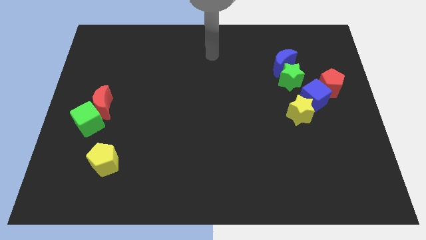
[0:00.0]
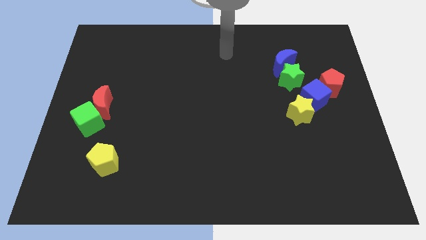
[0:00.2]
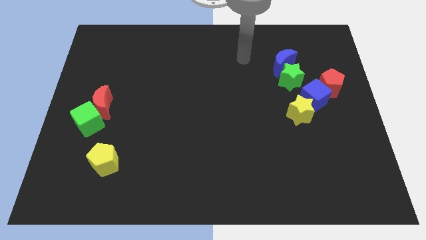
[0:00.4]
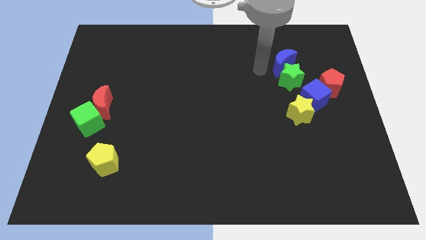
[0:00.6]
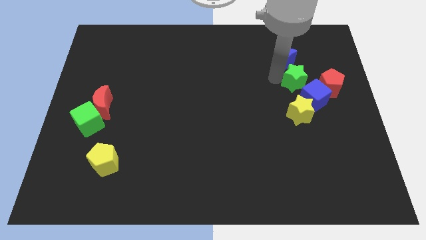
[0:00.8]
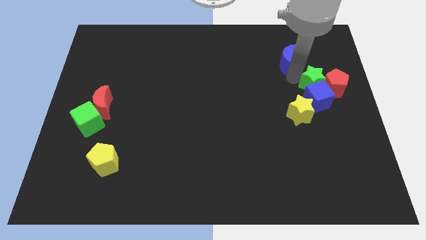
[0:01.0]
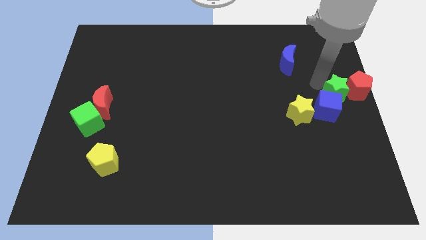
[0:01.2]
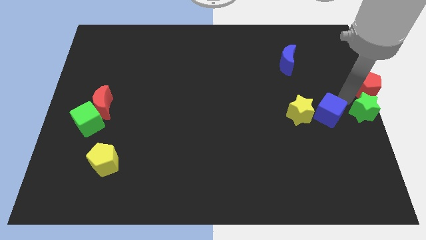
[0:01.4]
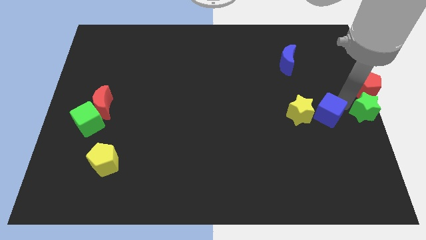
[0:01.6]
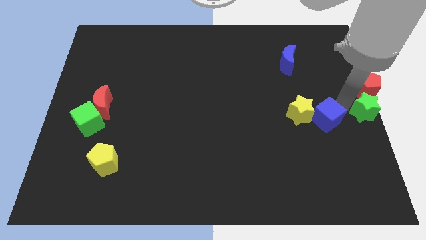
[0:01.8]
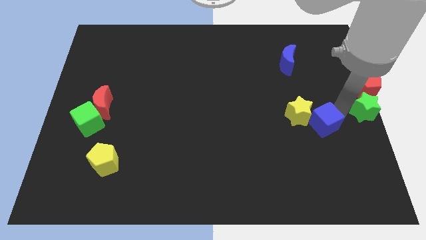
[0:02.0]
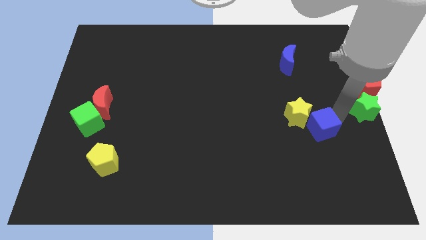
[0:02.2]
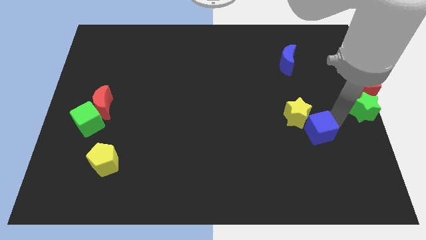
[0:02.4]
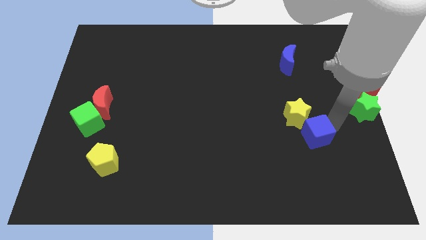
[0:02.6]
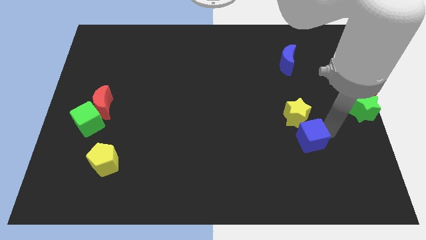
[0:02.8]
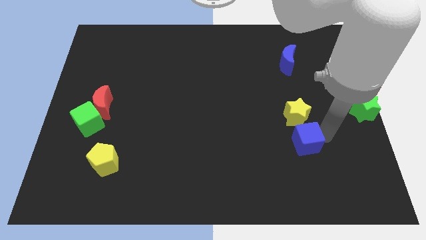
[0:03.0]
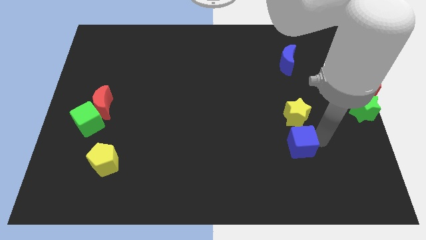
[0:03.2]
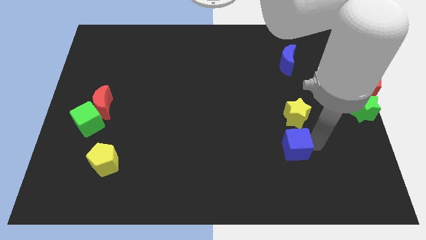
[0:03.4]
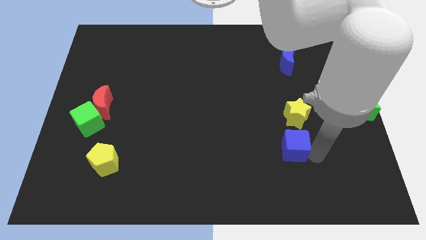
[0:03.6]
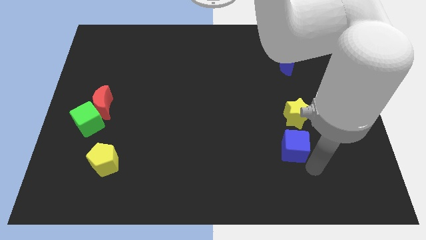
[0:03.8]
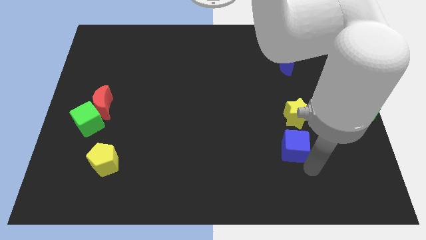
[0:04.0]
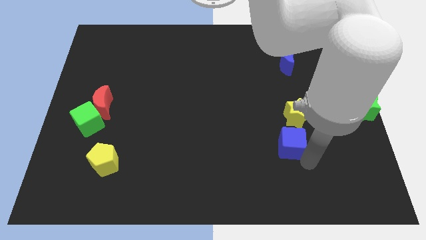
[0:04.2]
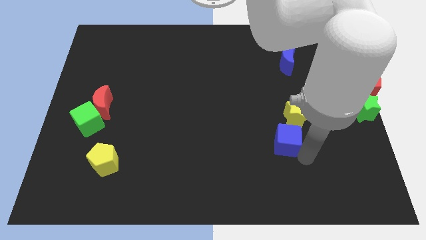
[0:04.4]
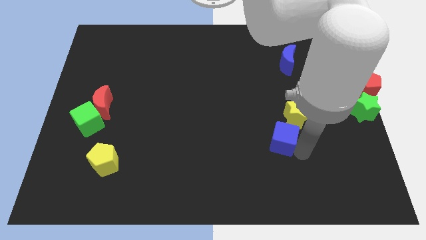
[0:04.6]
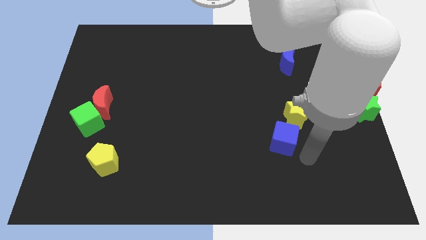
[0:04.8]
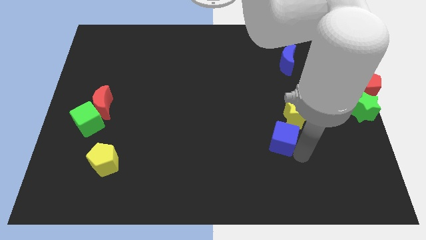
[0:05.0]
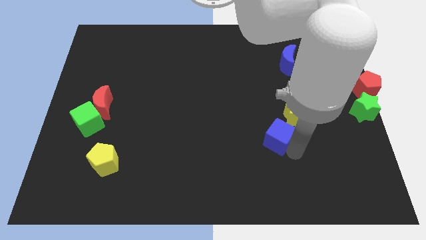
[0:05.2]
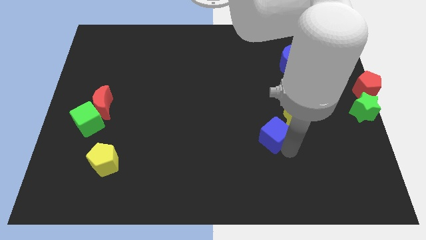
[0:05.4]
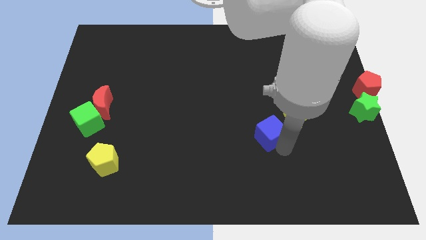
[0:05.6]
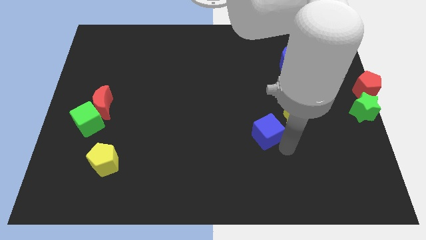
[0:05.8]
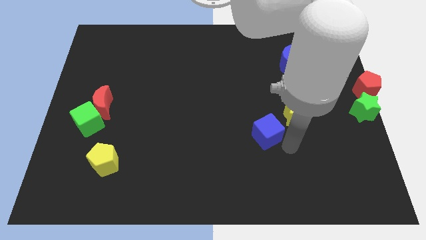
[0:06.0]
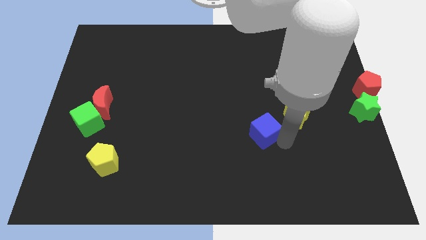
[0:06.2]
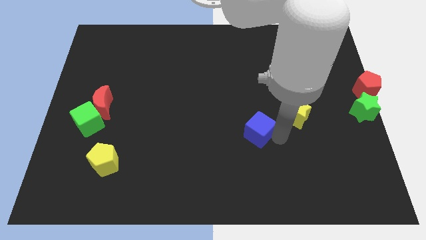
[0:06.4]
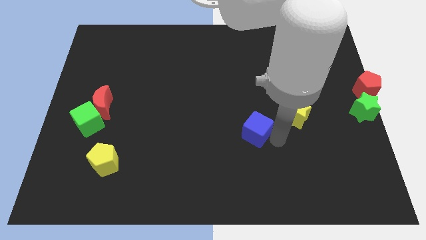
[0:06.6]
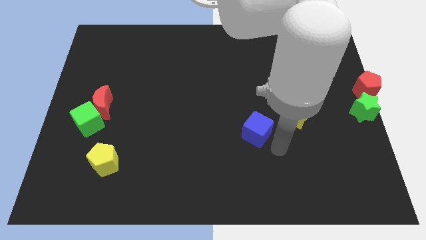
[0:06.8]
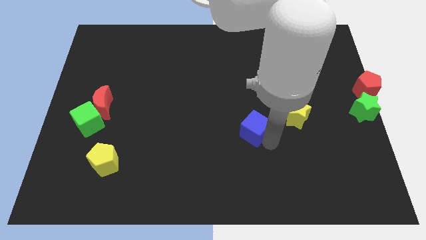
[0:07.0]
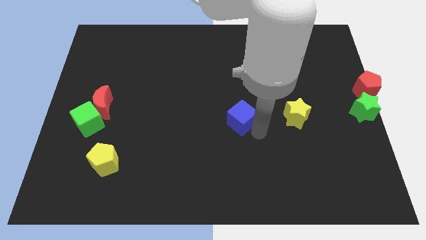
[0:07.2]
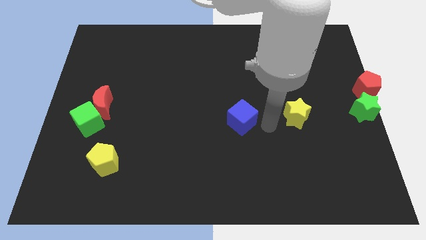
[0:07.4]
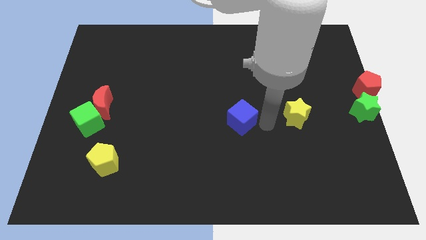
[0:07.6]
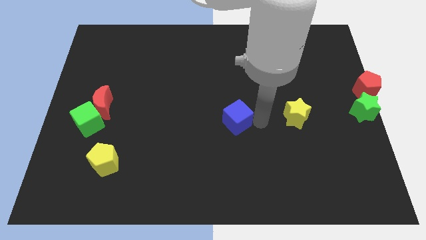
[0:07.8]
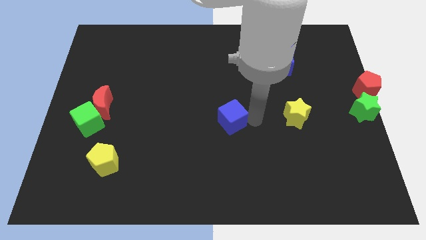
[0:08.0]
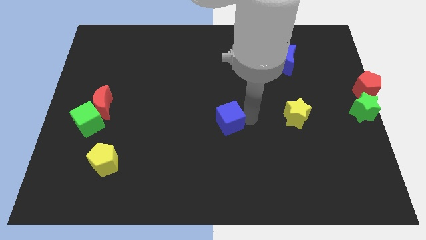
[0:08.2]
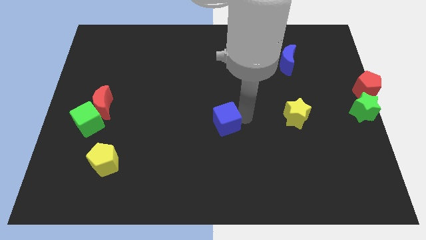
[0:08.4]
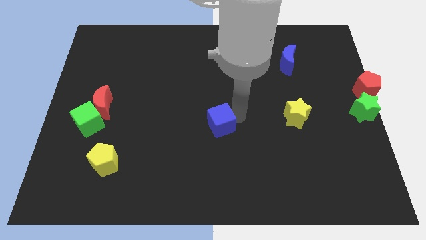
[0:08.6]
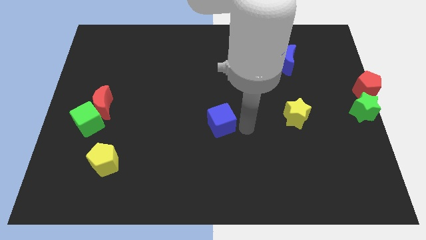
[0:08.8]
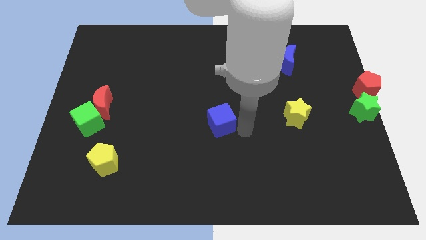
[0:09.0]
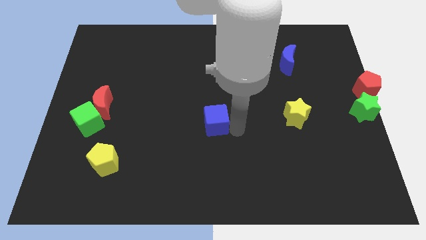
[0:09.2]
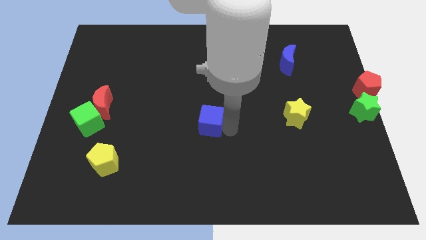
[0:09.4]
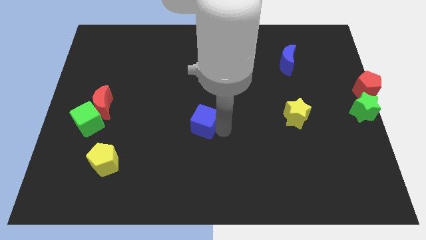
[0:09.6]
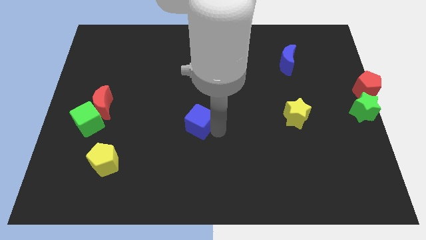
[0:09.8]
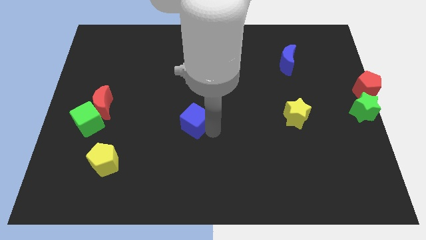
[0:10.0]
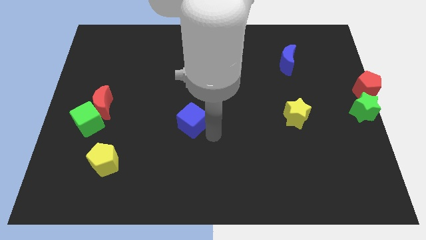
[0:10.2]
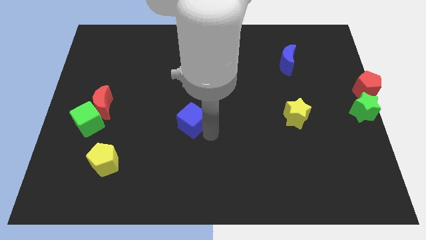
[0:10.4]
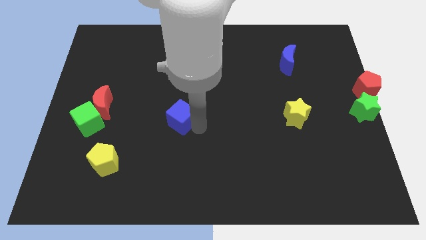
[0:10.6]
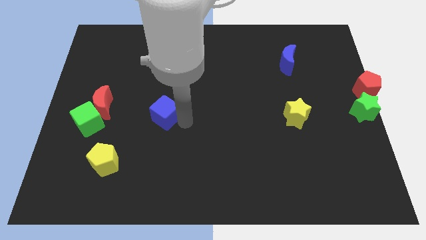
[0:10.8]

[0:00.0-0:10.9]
put the blue cube just right of the red moon

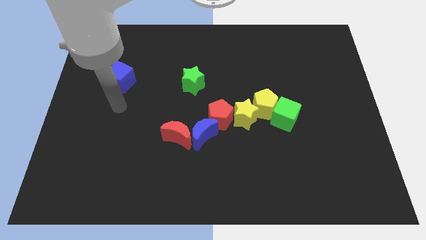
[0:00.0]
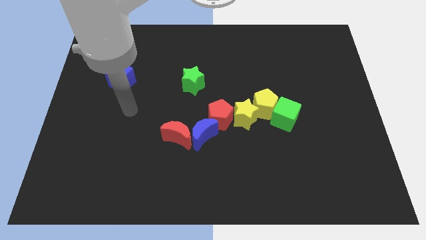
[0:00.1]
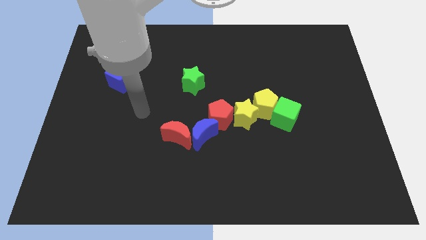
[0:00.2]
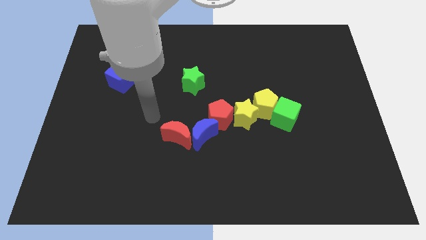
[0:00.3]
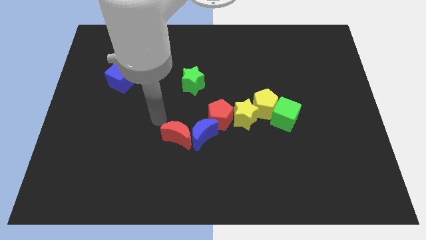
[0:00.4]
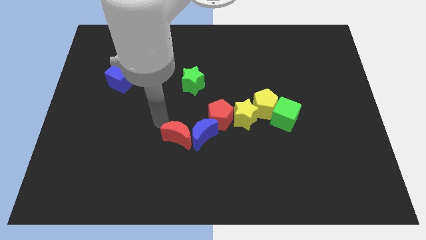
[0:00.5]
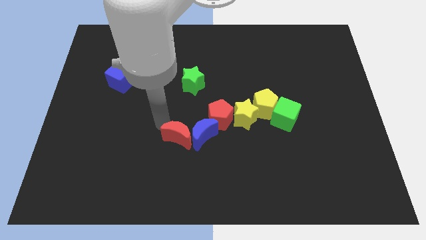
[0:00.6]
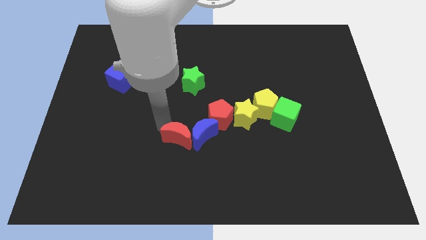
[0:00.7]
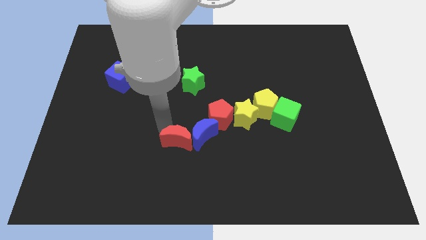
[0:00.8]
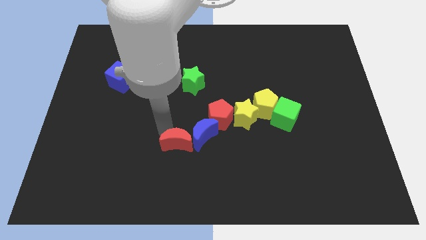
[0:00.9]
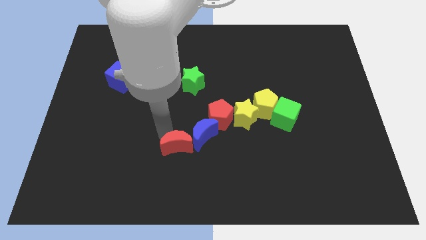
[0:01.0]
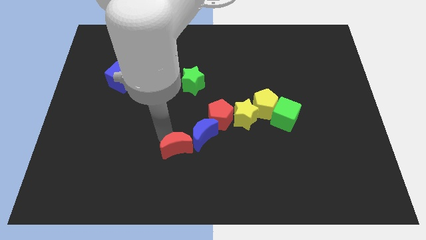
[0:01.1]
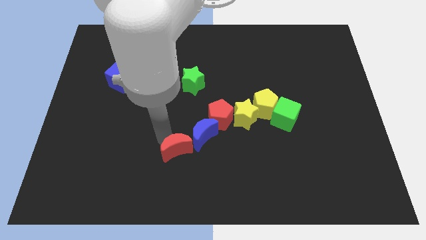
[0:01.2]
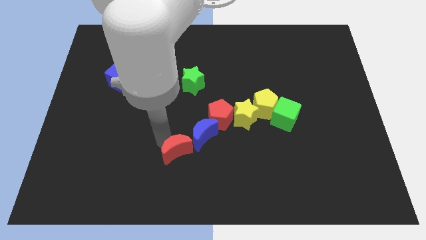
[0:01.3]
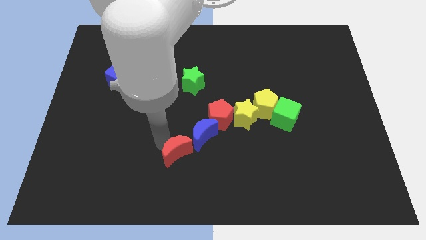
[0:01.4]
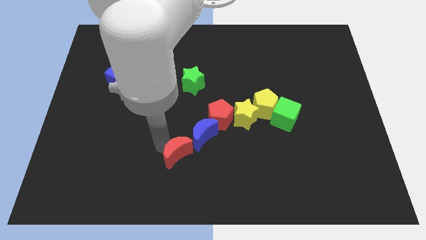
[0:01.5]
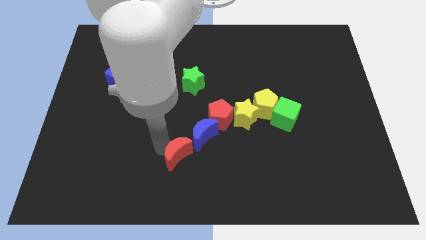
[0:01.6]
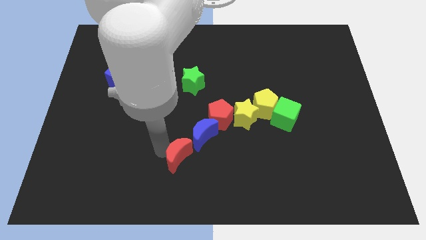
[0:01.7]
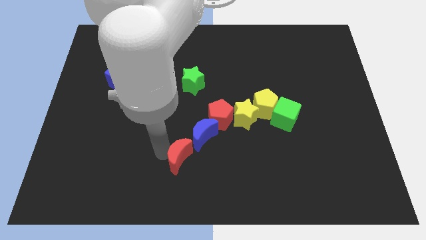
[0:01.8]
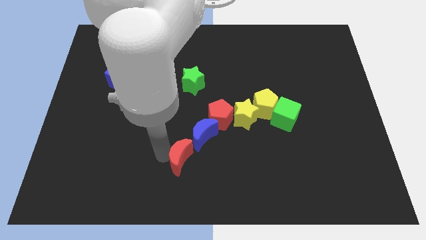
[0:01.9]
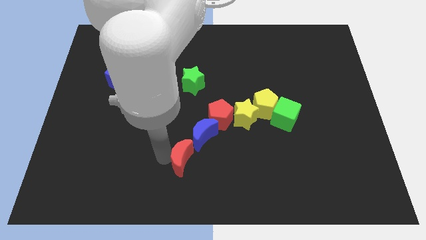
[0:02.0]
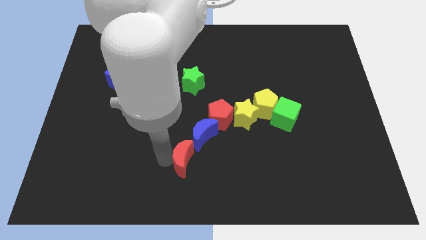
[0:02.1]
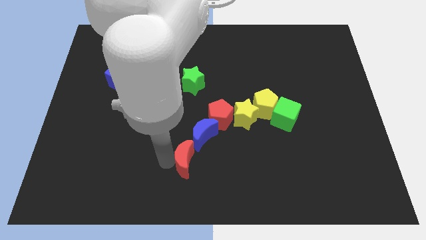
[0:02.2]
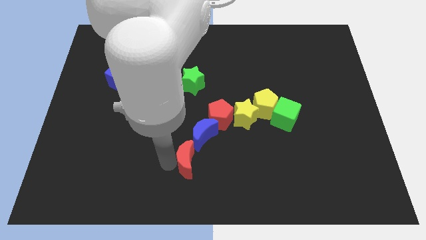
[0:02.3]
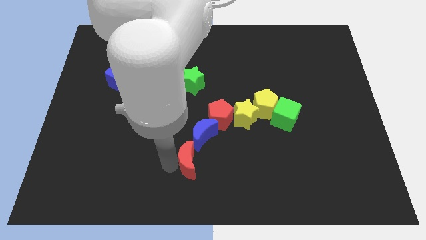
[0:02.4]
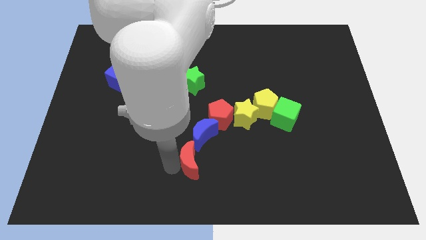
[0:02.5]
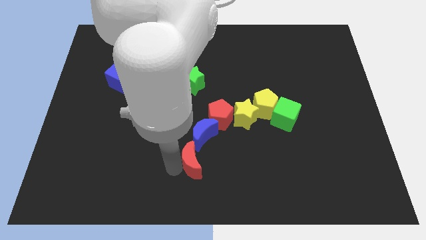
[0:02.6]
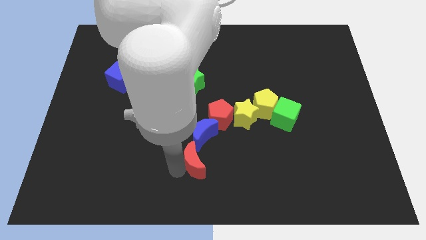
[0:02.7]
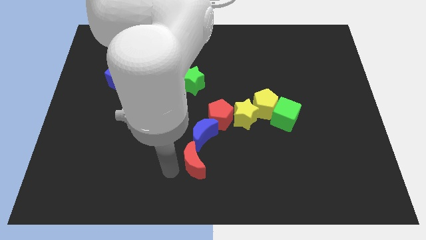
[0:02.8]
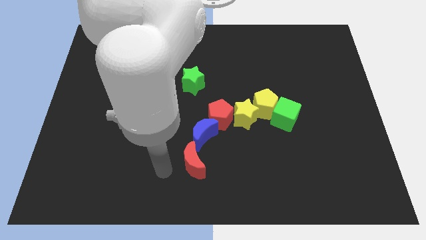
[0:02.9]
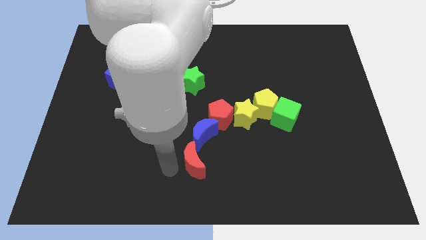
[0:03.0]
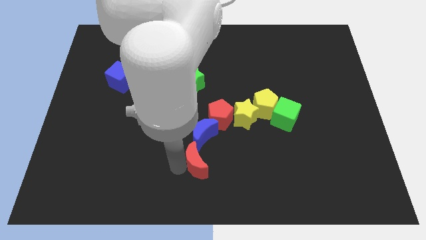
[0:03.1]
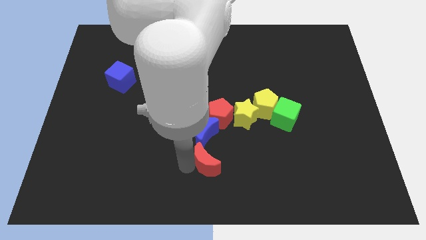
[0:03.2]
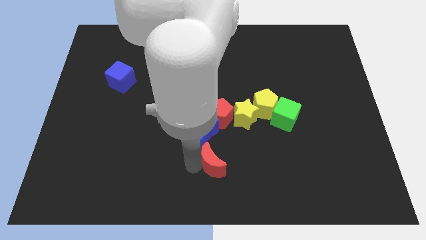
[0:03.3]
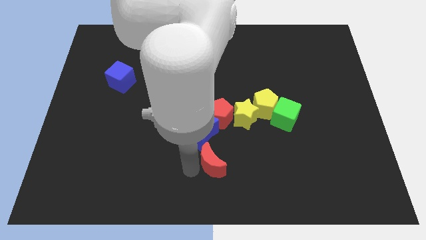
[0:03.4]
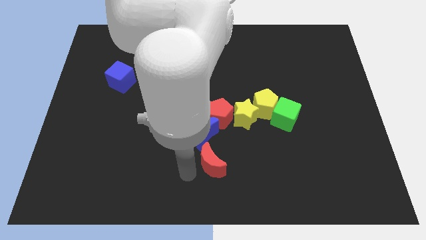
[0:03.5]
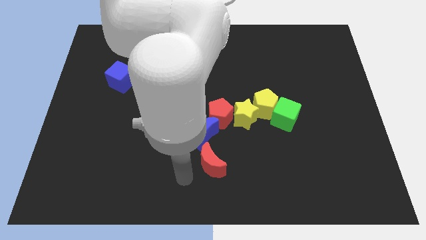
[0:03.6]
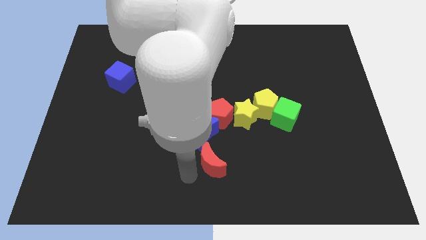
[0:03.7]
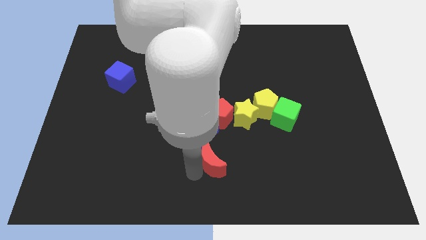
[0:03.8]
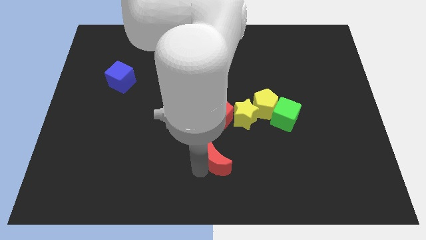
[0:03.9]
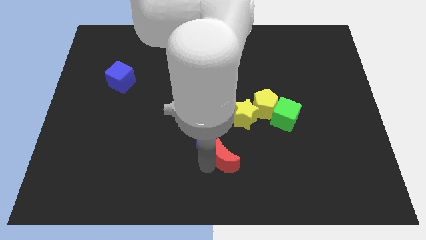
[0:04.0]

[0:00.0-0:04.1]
slide the red moon below the yellow star
